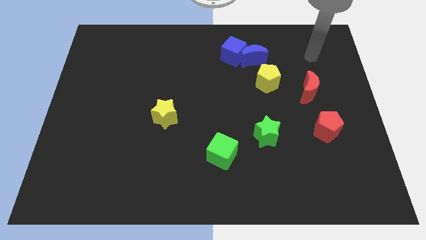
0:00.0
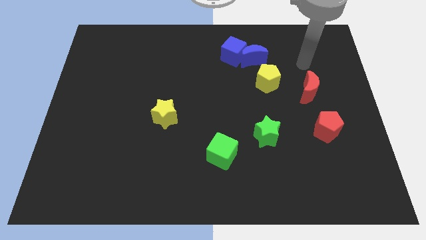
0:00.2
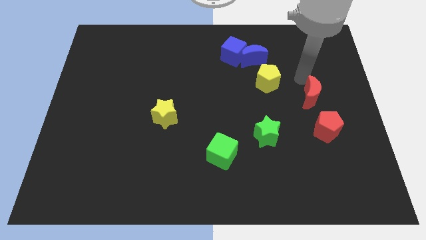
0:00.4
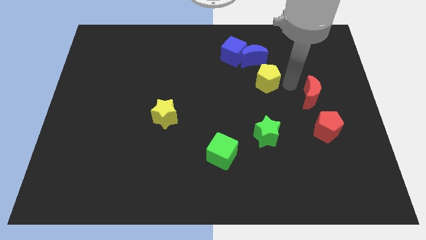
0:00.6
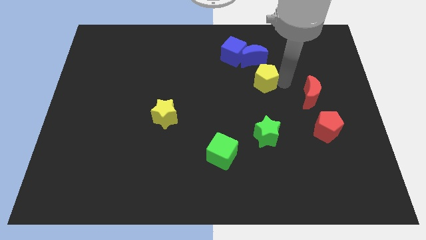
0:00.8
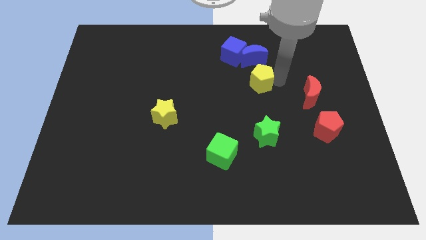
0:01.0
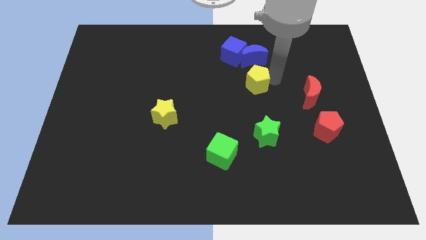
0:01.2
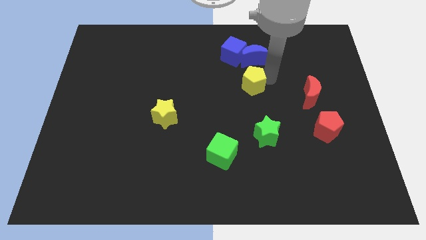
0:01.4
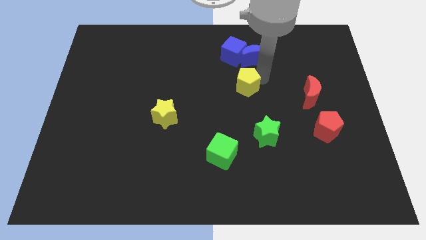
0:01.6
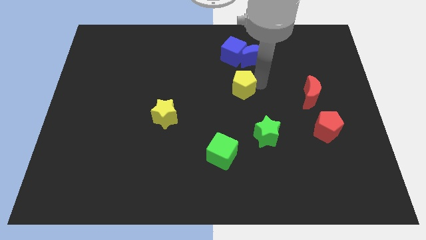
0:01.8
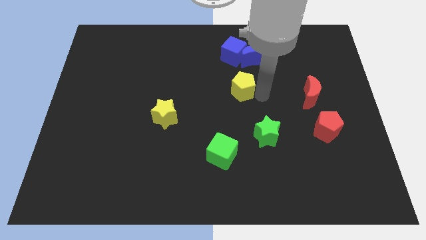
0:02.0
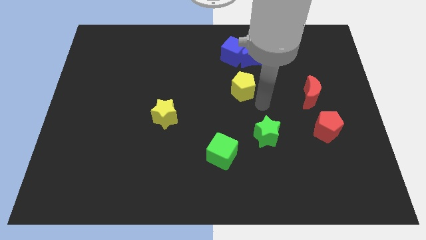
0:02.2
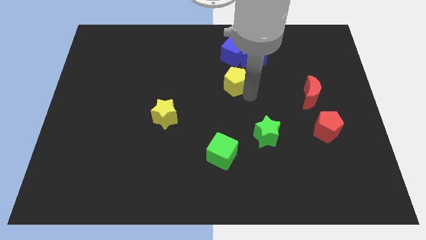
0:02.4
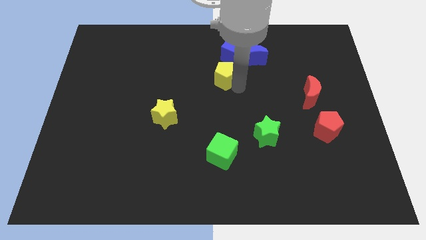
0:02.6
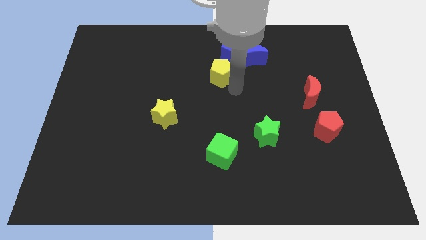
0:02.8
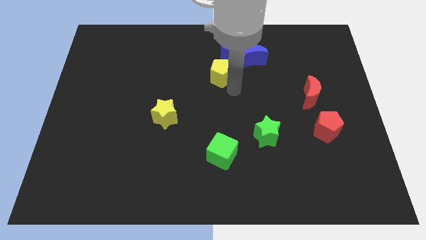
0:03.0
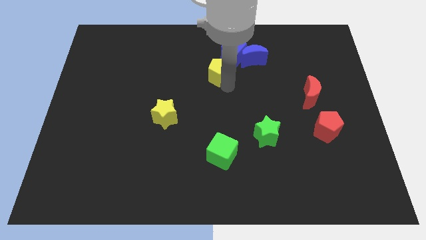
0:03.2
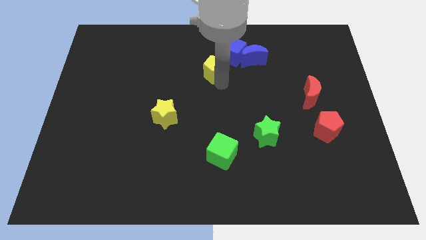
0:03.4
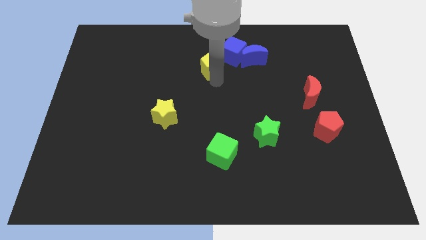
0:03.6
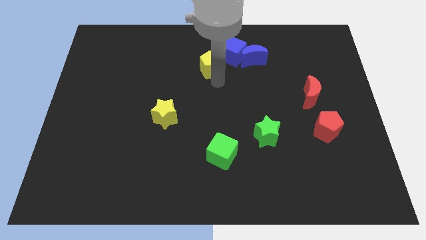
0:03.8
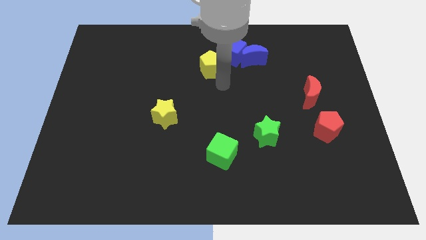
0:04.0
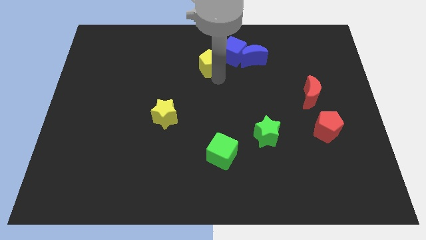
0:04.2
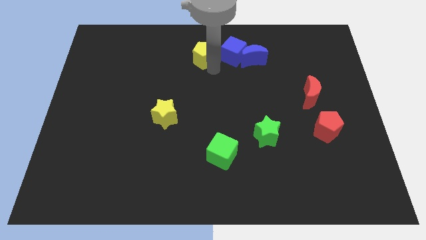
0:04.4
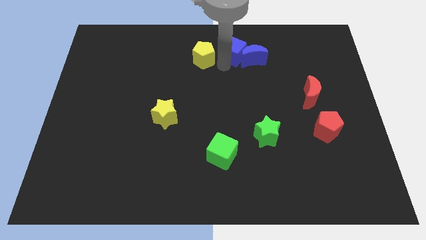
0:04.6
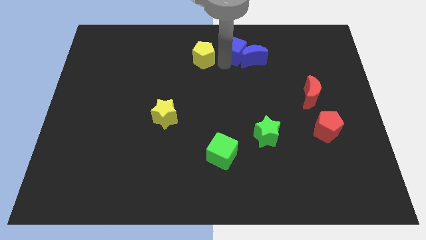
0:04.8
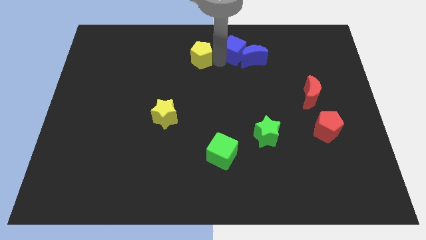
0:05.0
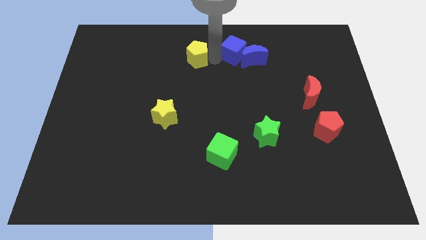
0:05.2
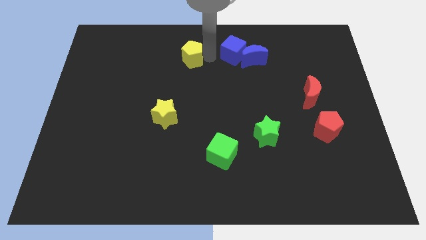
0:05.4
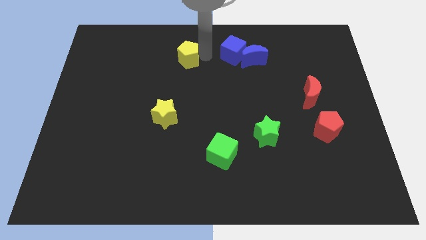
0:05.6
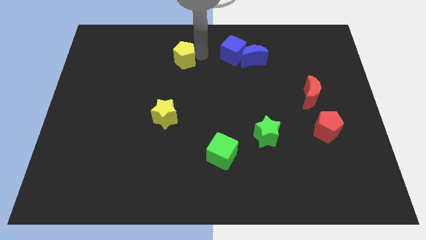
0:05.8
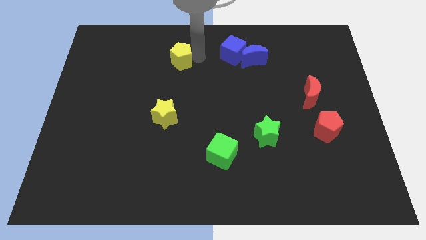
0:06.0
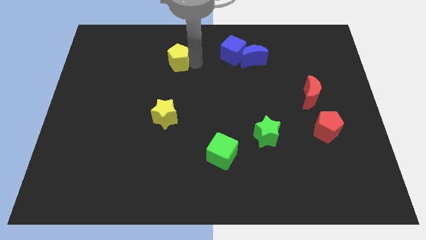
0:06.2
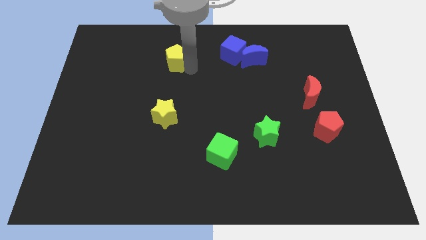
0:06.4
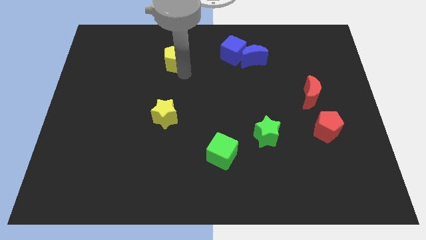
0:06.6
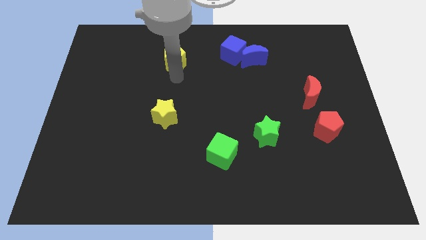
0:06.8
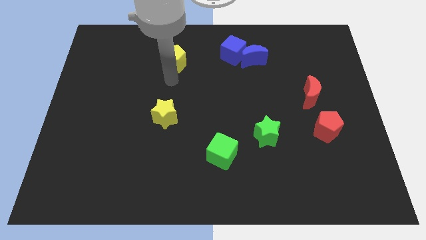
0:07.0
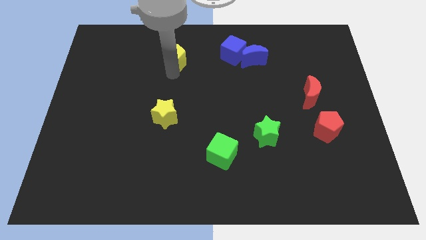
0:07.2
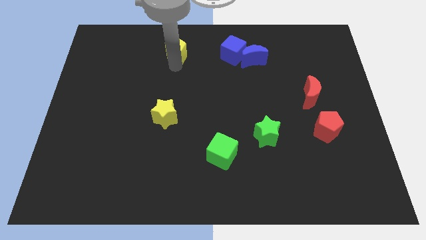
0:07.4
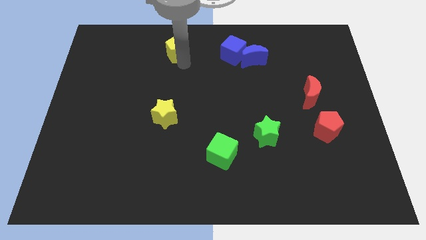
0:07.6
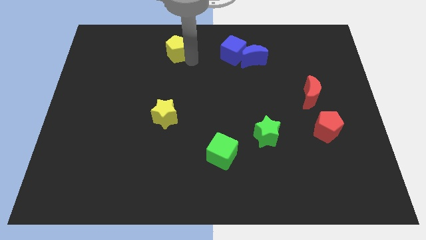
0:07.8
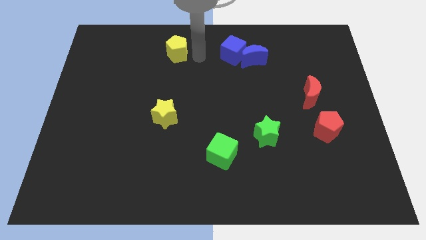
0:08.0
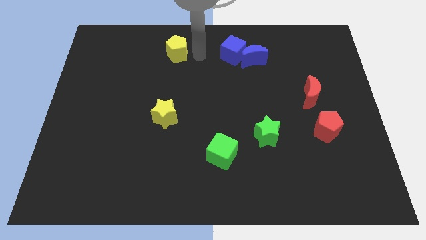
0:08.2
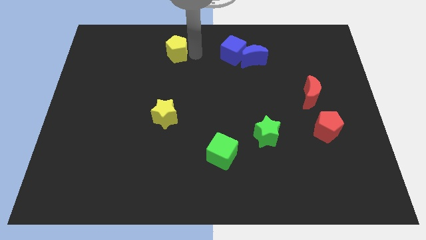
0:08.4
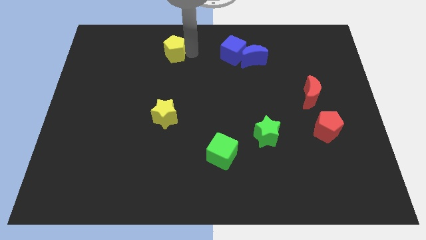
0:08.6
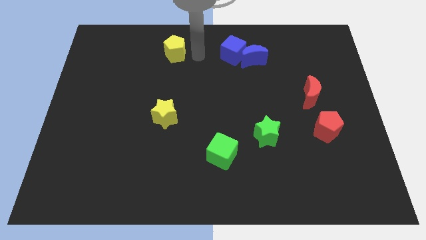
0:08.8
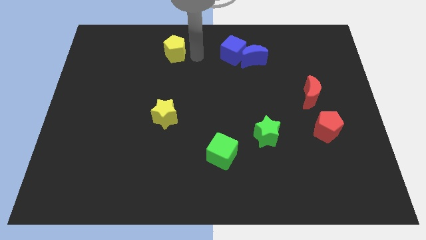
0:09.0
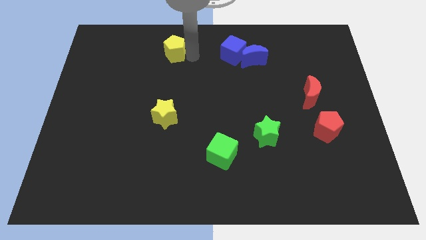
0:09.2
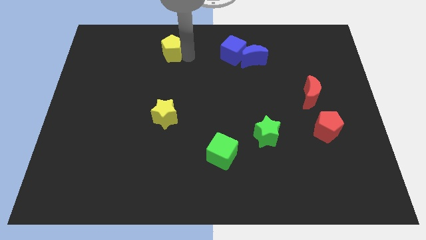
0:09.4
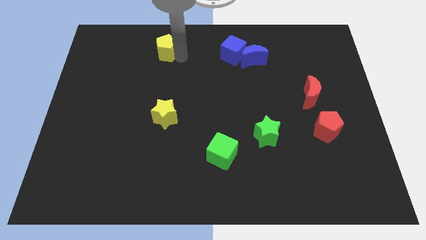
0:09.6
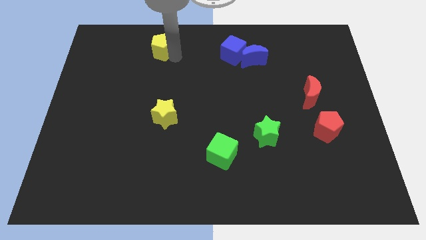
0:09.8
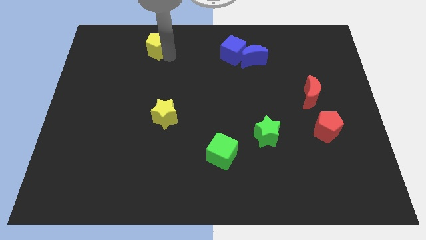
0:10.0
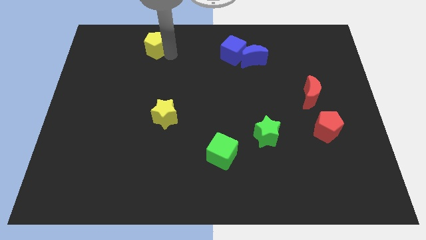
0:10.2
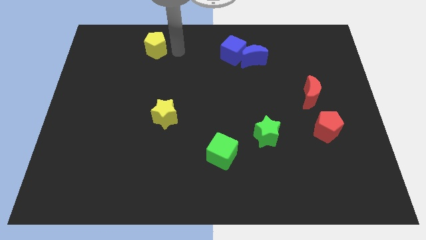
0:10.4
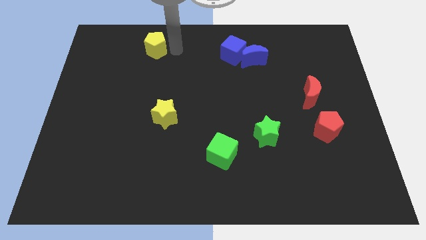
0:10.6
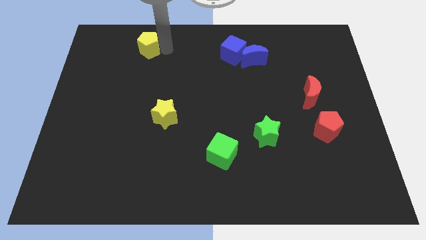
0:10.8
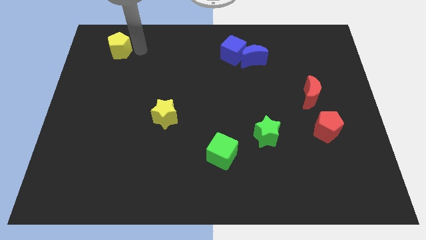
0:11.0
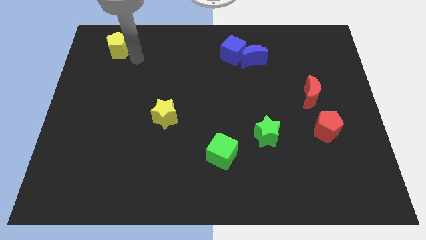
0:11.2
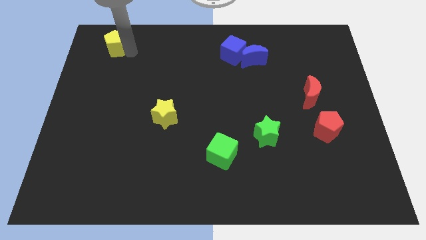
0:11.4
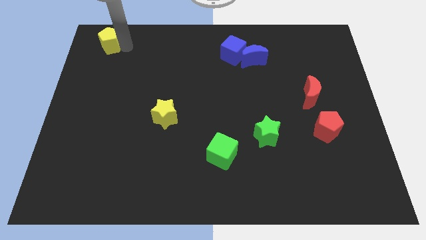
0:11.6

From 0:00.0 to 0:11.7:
slide the yellow pentagon to the top left

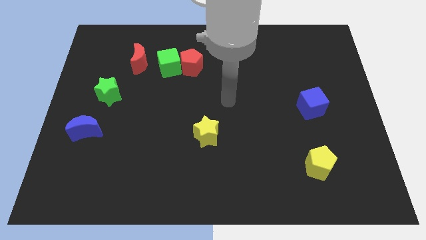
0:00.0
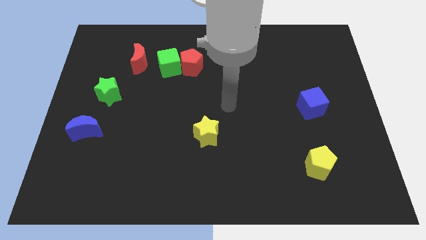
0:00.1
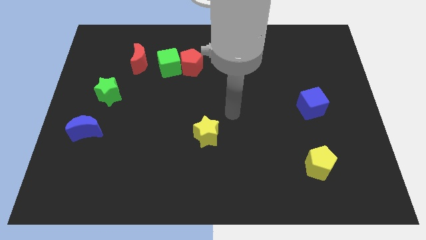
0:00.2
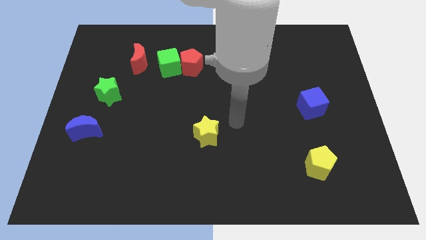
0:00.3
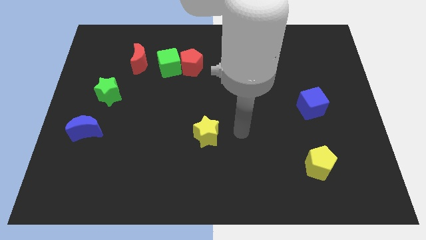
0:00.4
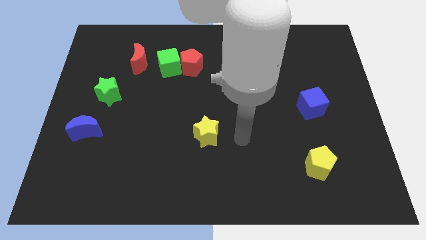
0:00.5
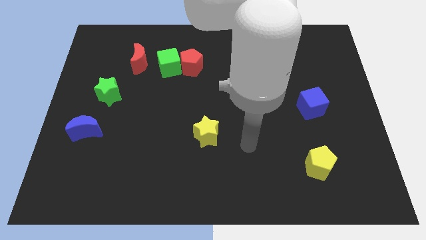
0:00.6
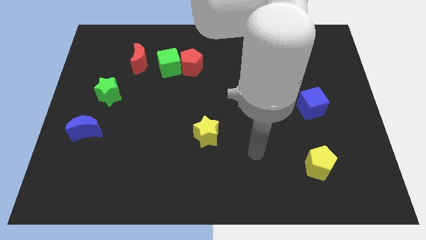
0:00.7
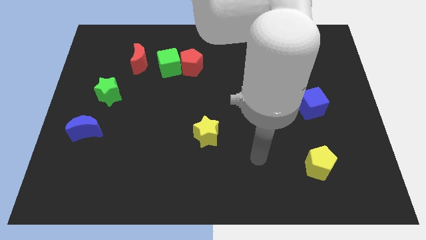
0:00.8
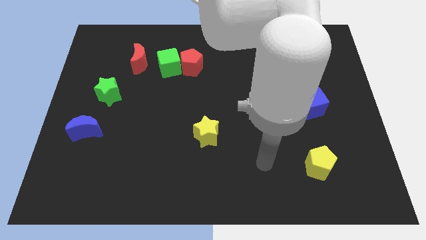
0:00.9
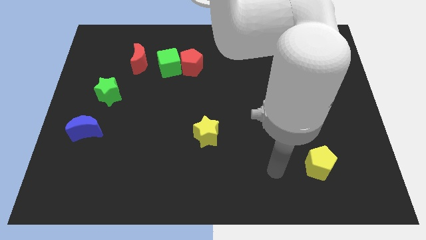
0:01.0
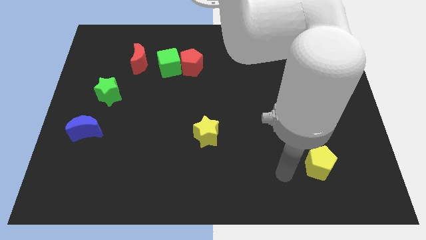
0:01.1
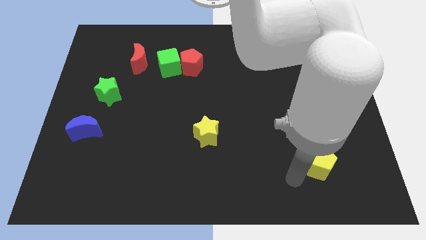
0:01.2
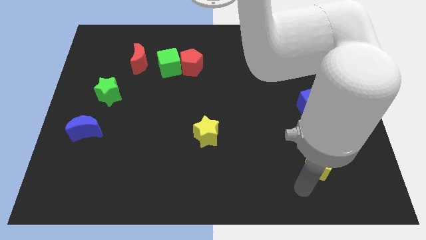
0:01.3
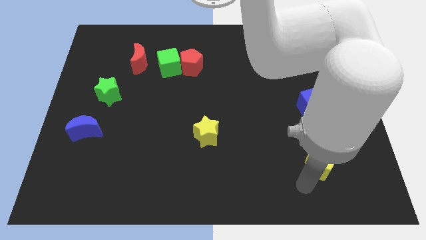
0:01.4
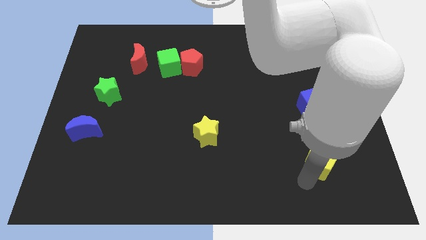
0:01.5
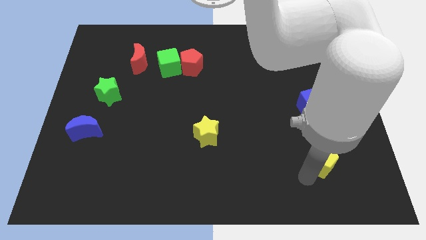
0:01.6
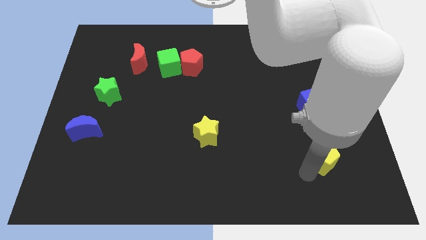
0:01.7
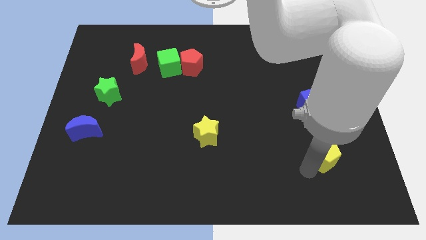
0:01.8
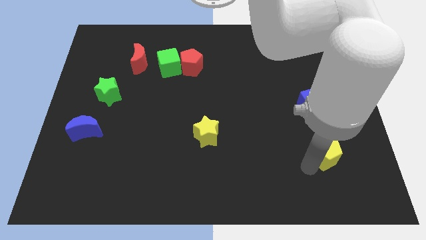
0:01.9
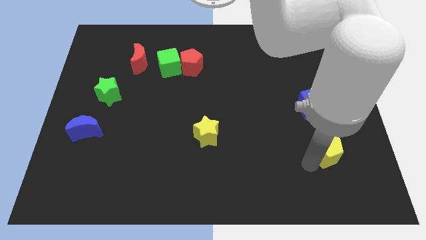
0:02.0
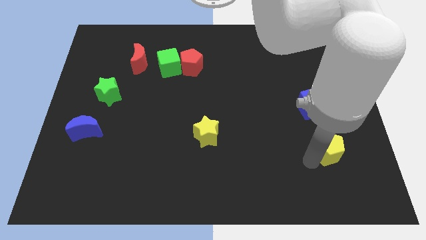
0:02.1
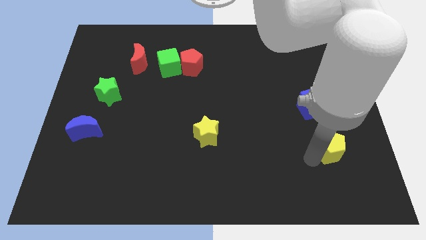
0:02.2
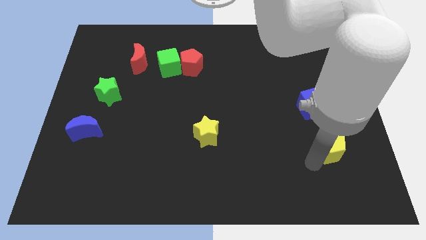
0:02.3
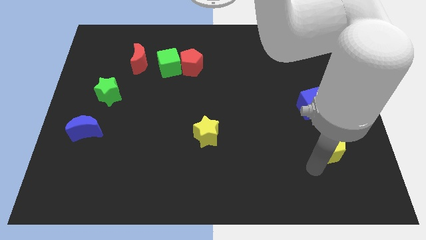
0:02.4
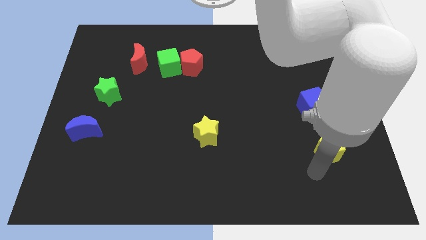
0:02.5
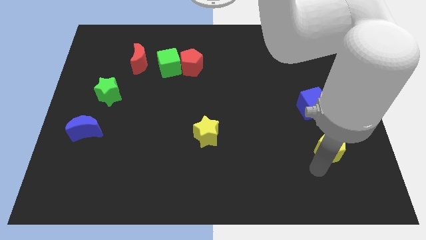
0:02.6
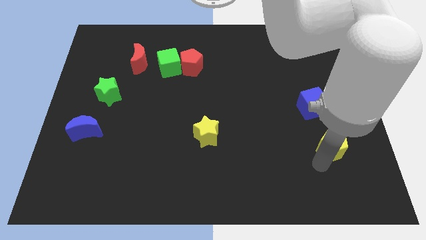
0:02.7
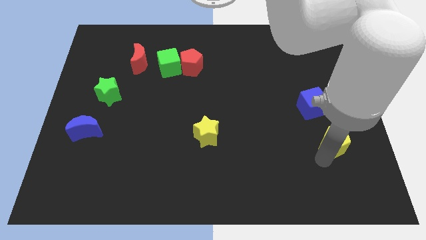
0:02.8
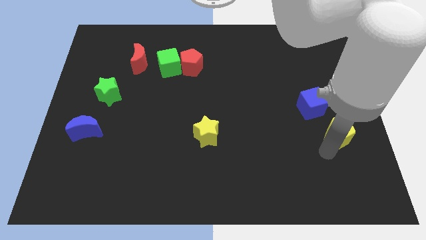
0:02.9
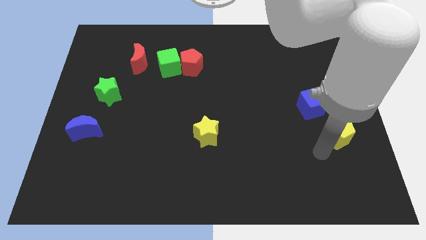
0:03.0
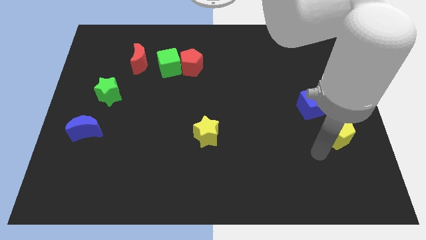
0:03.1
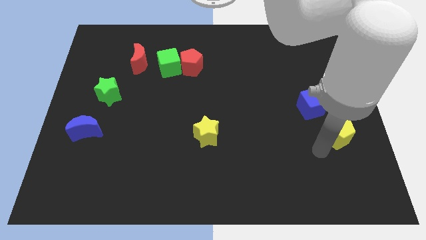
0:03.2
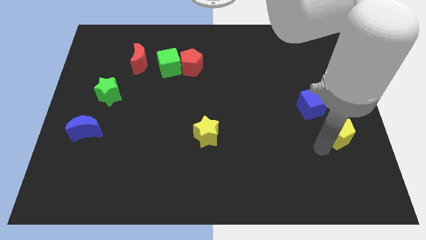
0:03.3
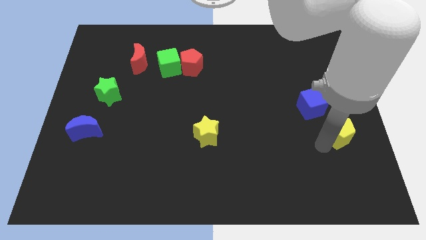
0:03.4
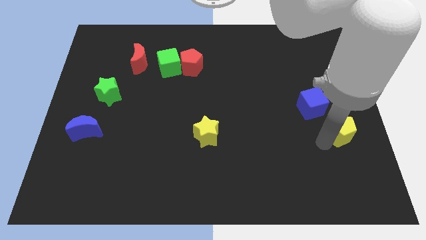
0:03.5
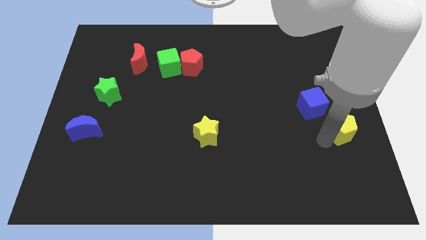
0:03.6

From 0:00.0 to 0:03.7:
move the yellow pentagon to the right side of the board
